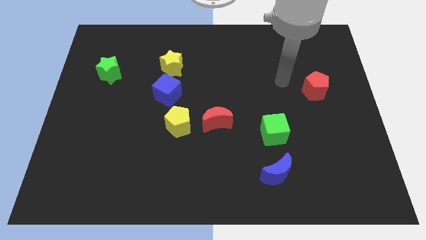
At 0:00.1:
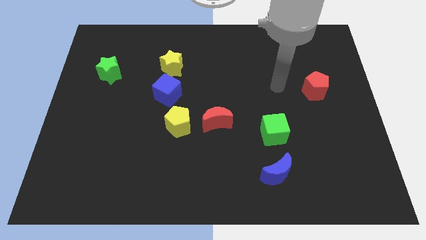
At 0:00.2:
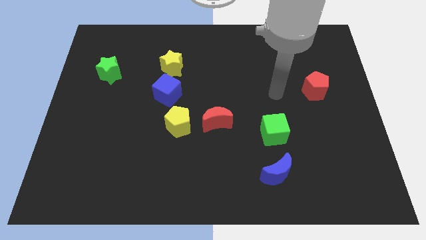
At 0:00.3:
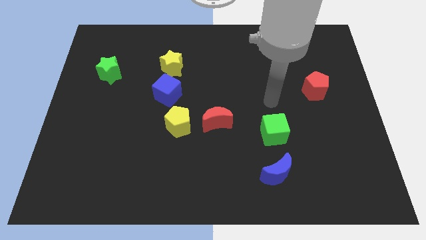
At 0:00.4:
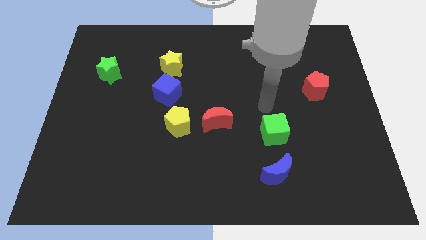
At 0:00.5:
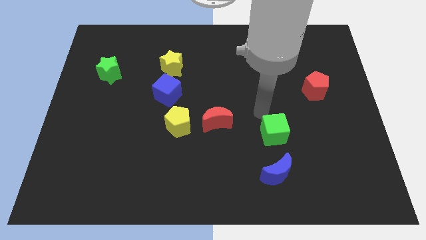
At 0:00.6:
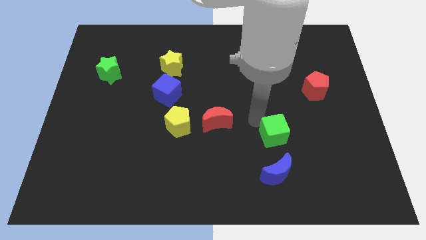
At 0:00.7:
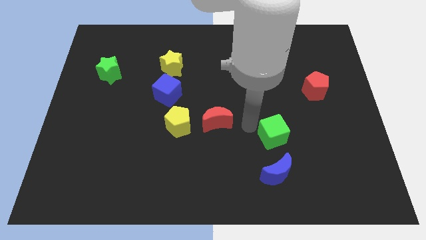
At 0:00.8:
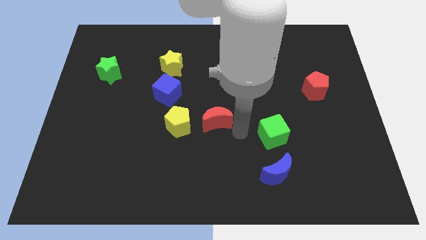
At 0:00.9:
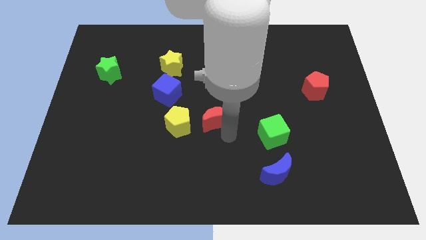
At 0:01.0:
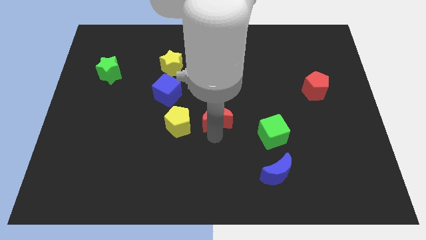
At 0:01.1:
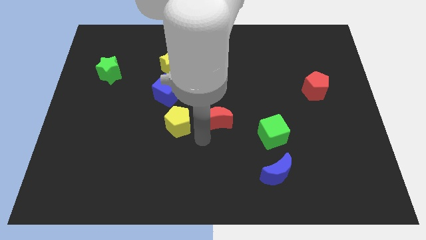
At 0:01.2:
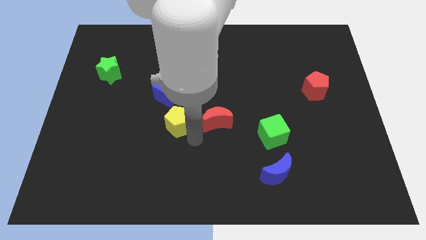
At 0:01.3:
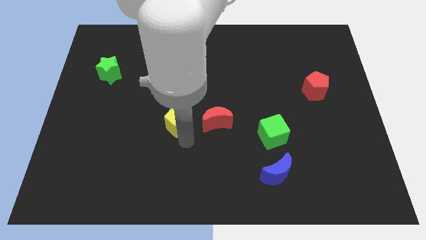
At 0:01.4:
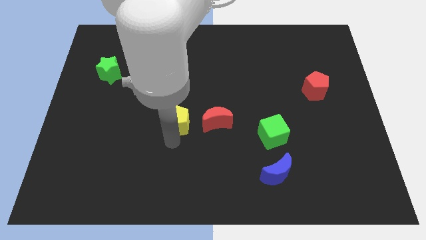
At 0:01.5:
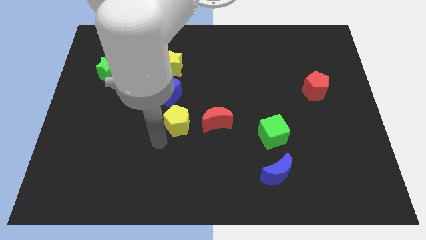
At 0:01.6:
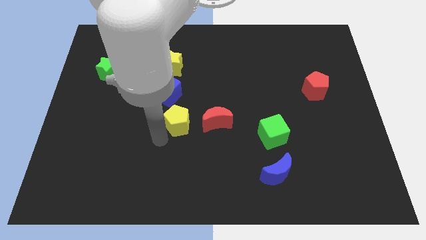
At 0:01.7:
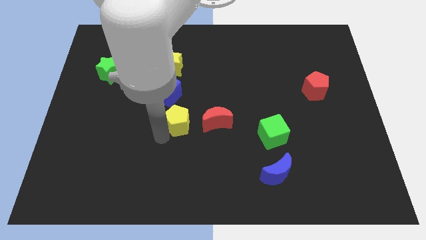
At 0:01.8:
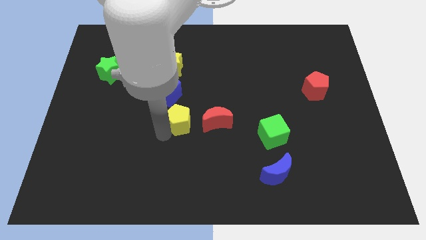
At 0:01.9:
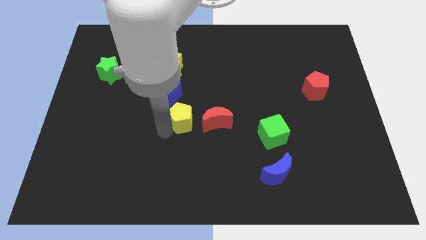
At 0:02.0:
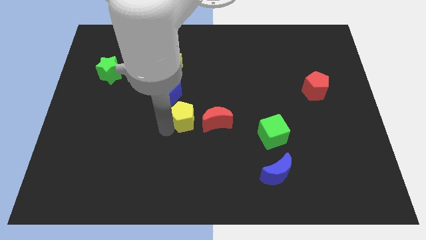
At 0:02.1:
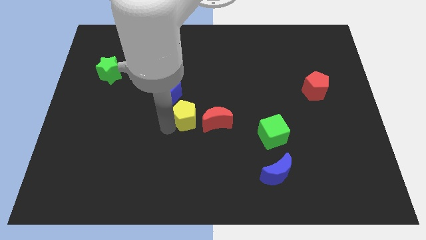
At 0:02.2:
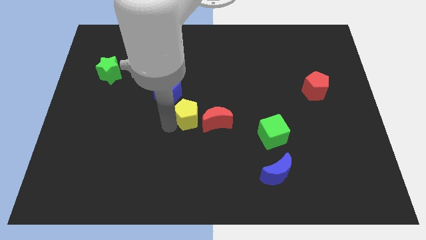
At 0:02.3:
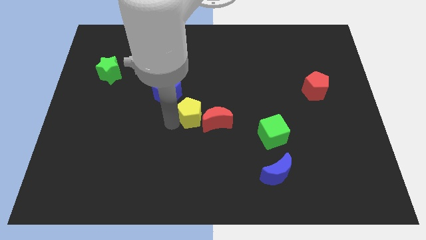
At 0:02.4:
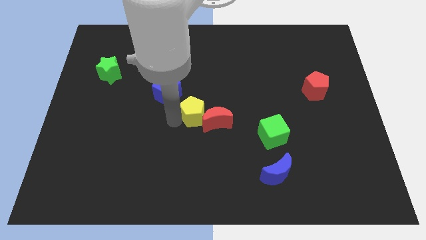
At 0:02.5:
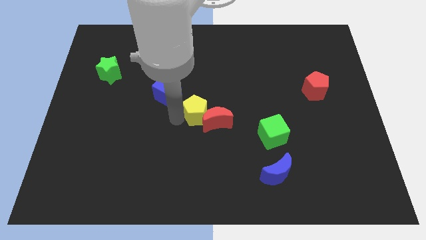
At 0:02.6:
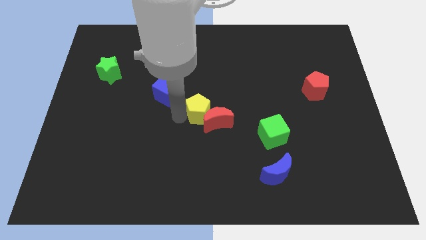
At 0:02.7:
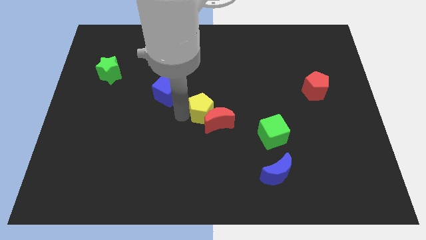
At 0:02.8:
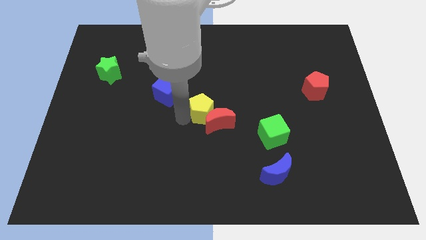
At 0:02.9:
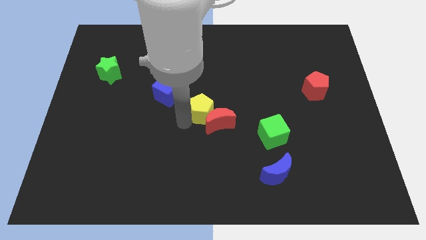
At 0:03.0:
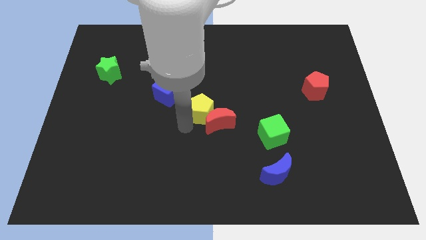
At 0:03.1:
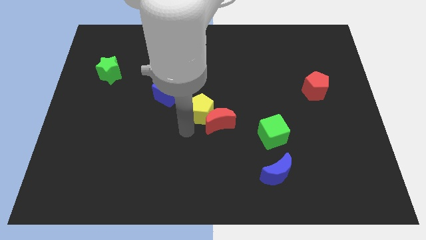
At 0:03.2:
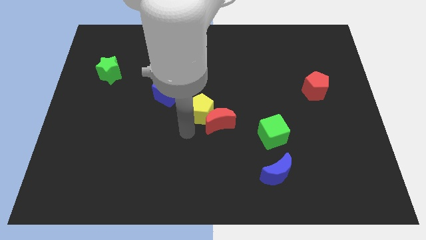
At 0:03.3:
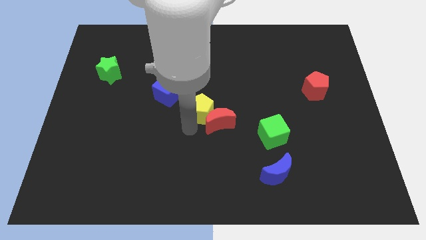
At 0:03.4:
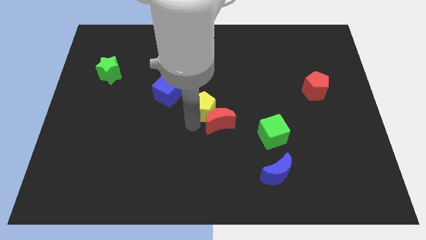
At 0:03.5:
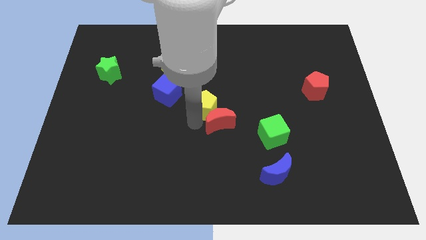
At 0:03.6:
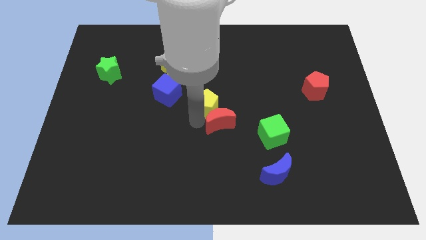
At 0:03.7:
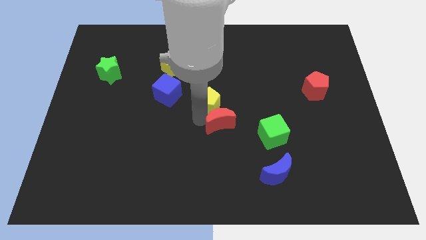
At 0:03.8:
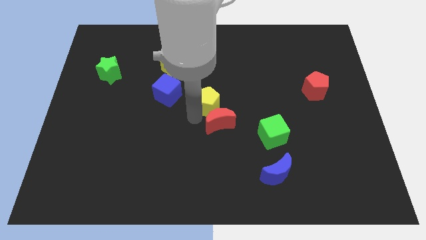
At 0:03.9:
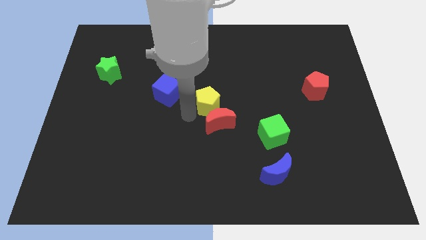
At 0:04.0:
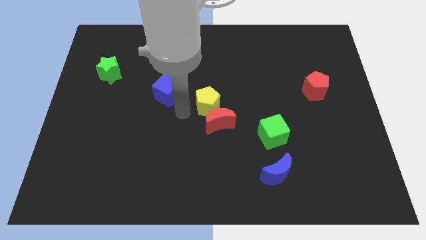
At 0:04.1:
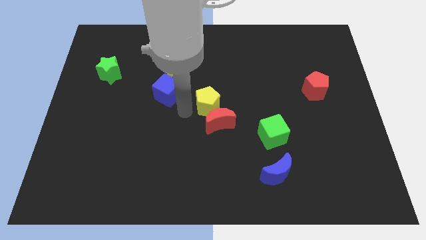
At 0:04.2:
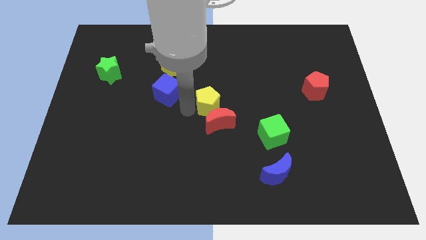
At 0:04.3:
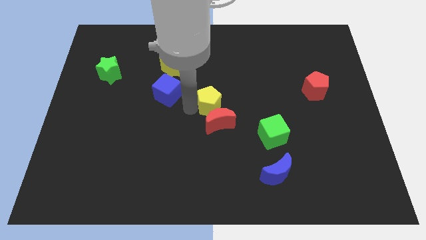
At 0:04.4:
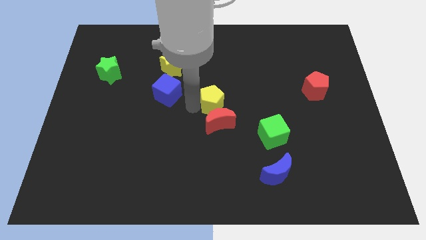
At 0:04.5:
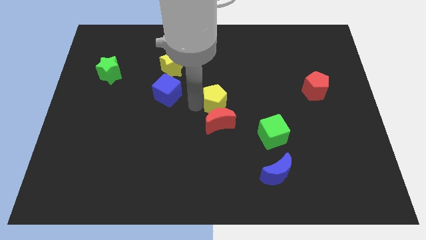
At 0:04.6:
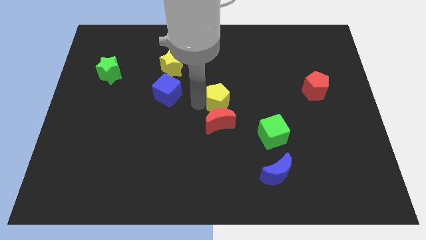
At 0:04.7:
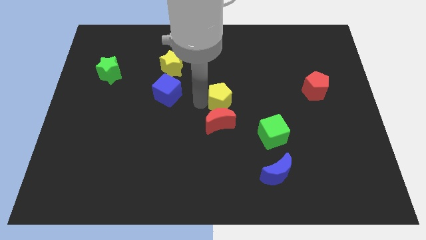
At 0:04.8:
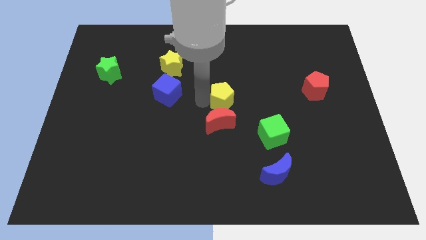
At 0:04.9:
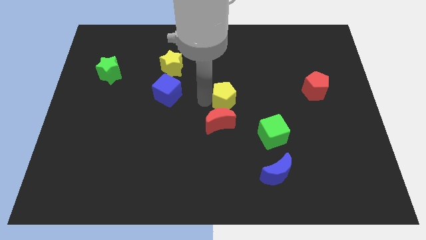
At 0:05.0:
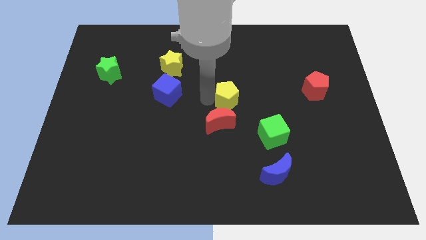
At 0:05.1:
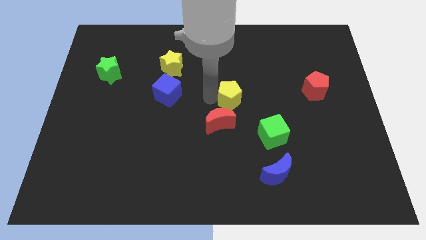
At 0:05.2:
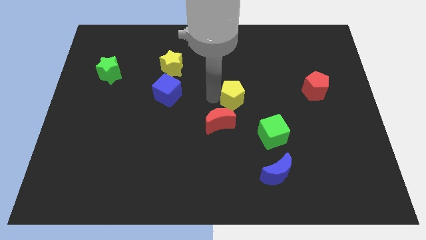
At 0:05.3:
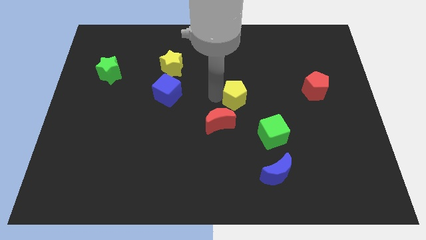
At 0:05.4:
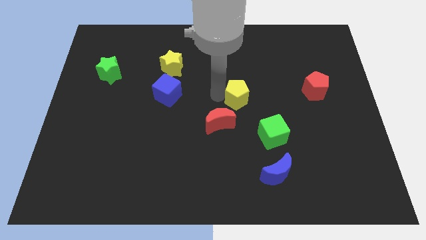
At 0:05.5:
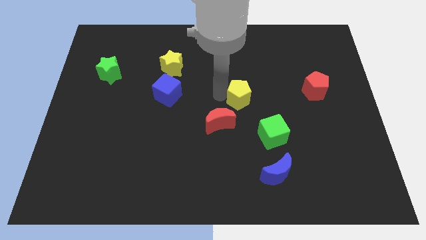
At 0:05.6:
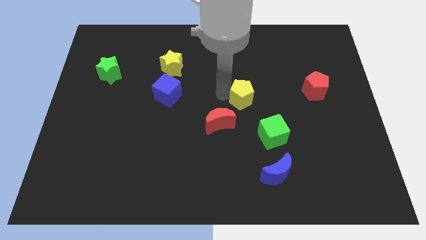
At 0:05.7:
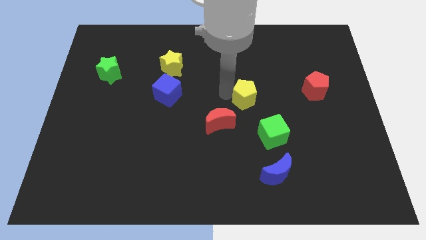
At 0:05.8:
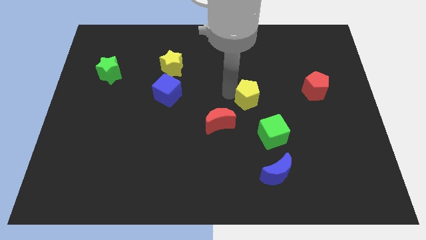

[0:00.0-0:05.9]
move the yellow pentagon to the top of the green cube

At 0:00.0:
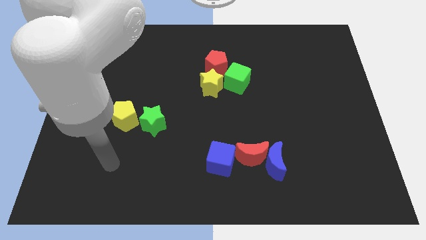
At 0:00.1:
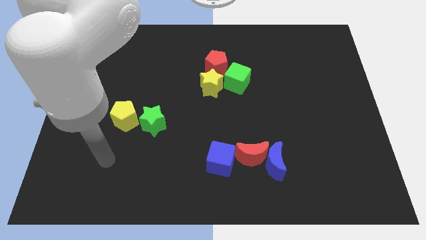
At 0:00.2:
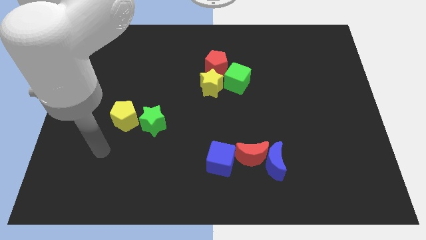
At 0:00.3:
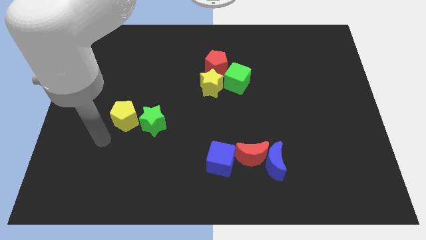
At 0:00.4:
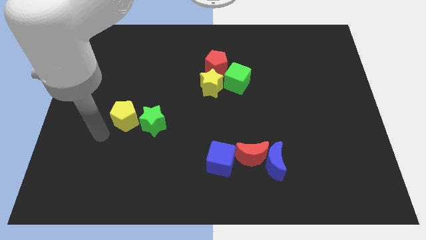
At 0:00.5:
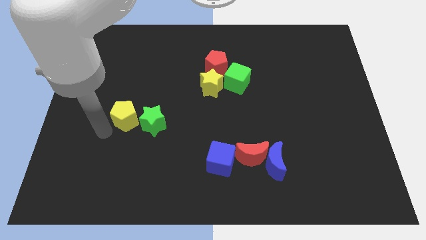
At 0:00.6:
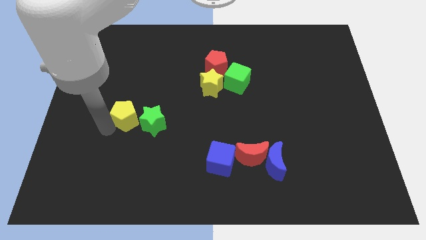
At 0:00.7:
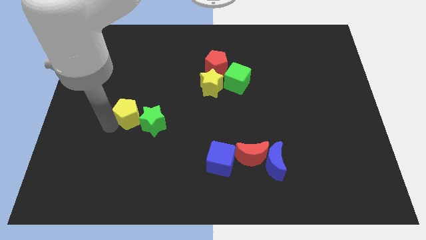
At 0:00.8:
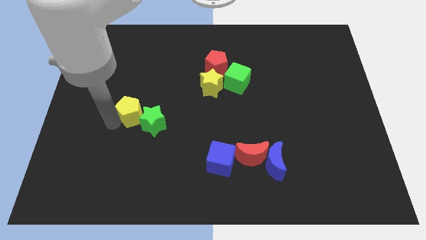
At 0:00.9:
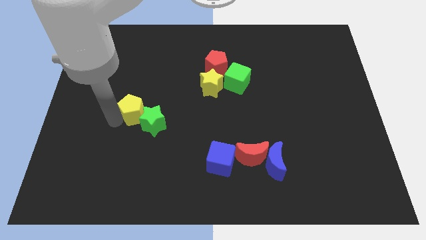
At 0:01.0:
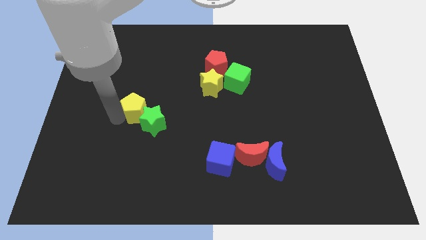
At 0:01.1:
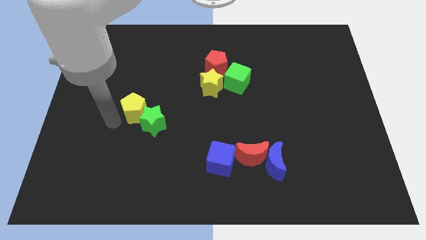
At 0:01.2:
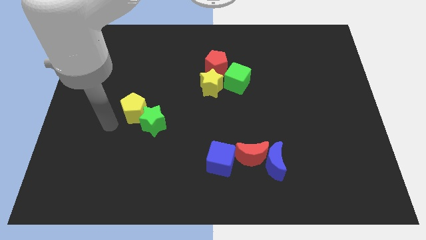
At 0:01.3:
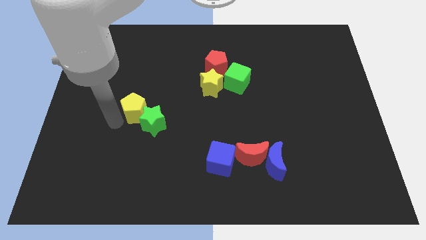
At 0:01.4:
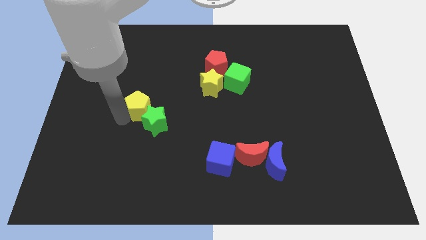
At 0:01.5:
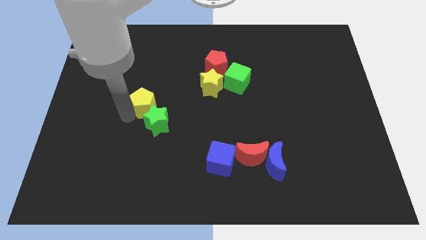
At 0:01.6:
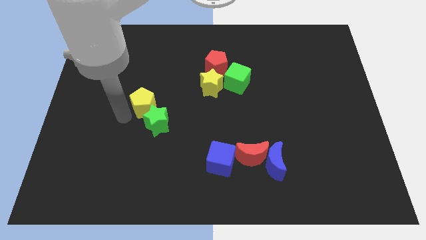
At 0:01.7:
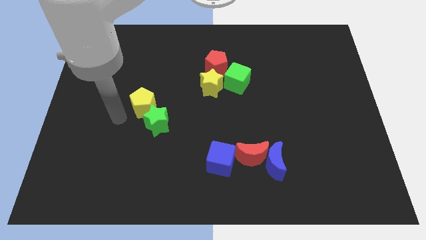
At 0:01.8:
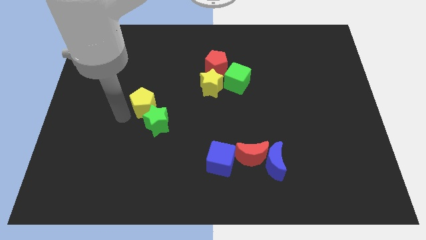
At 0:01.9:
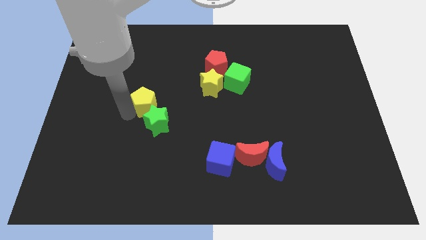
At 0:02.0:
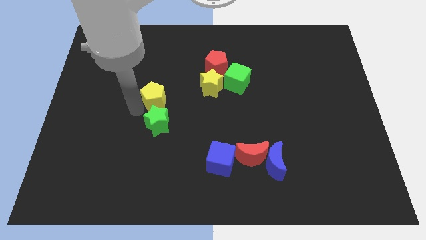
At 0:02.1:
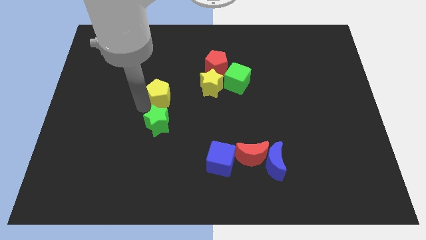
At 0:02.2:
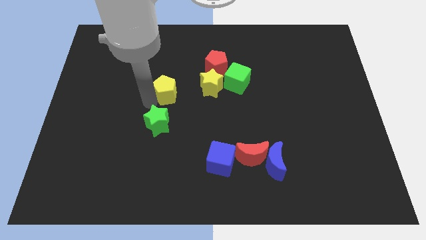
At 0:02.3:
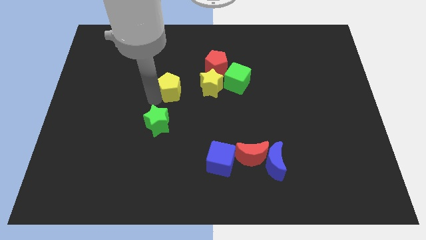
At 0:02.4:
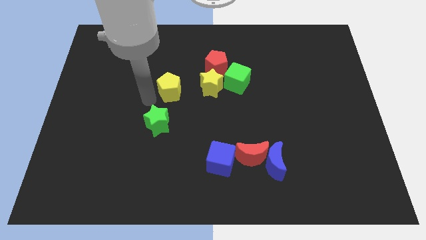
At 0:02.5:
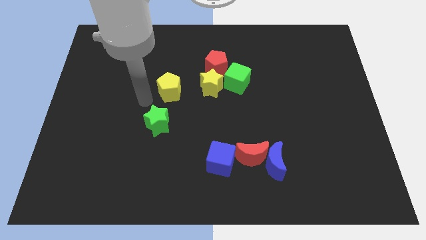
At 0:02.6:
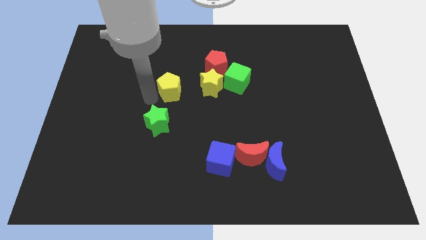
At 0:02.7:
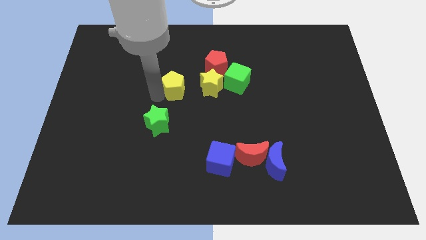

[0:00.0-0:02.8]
push the yellow pentagon to the left of the green cube
